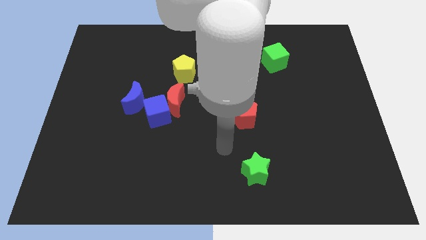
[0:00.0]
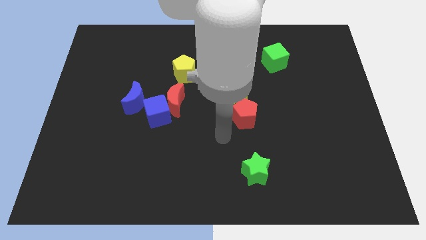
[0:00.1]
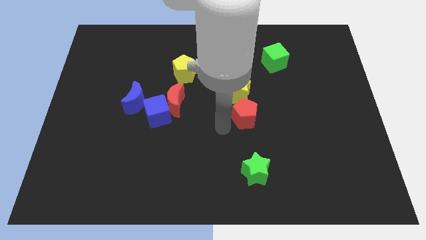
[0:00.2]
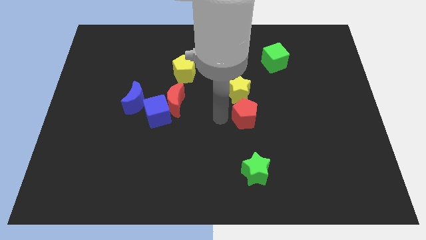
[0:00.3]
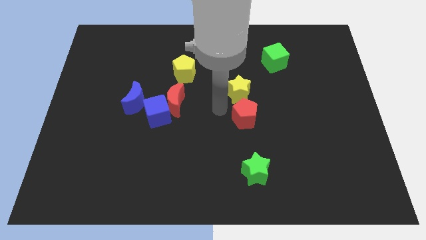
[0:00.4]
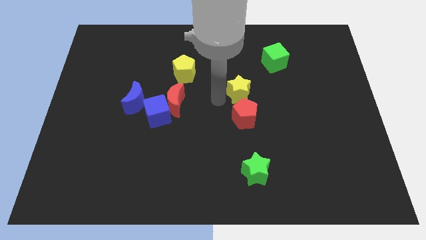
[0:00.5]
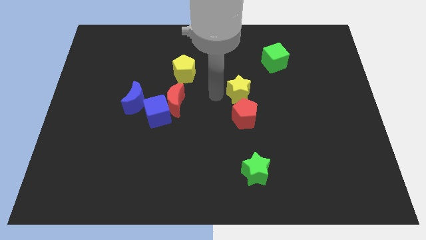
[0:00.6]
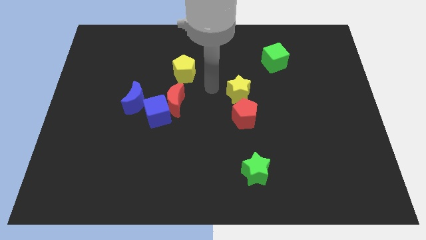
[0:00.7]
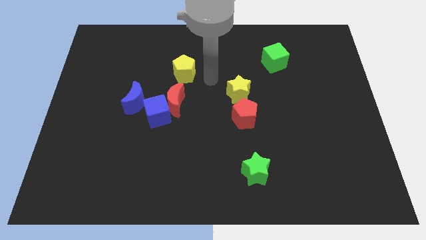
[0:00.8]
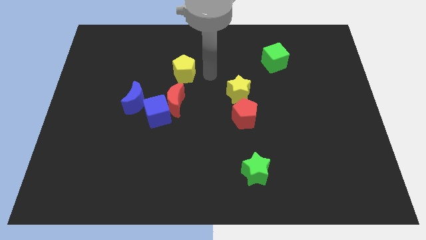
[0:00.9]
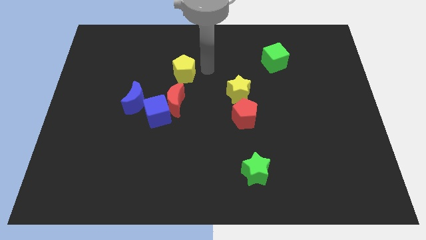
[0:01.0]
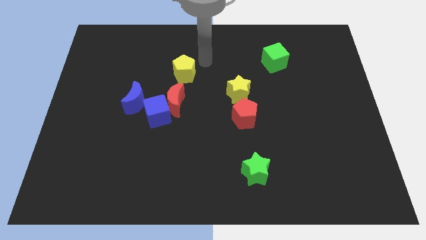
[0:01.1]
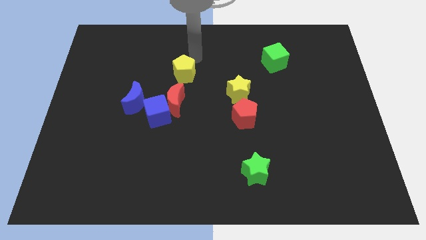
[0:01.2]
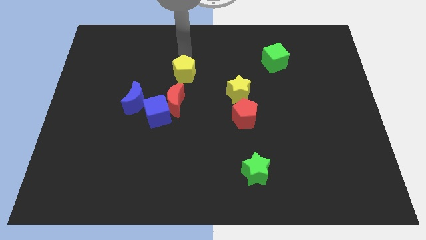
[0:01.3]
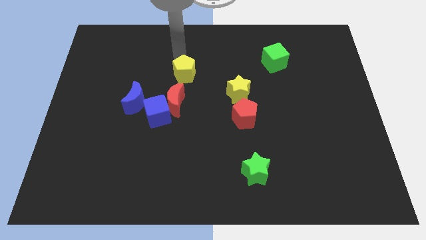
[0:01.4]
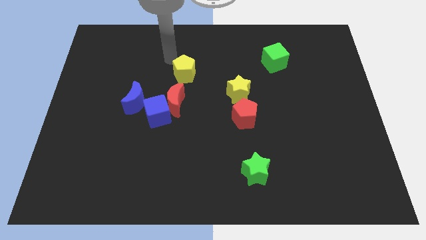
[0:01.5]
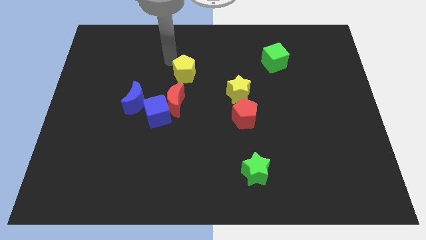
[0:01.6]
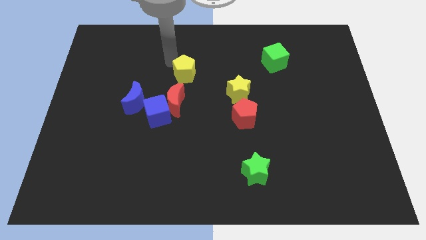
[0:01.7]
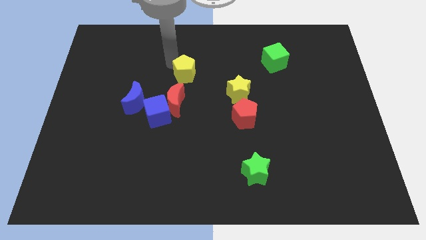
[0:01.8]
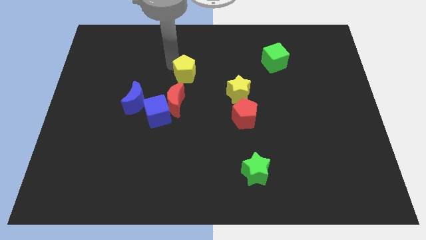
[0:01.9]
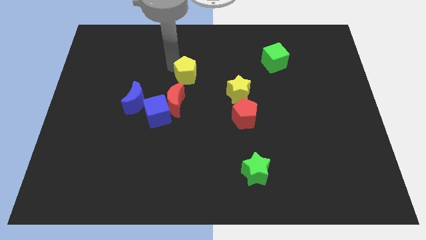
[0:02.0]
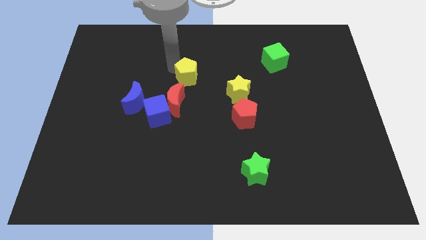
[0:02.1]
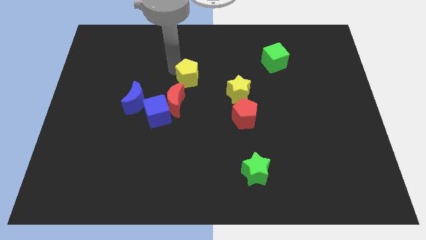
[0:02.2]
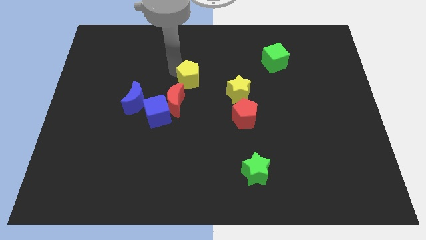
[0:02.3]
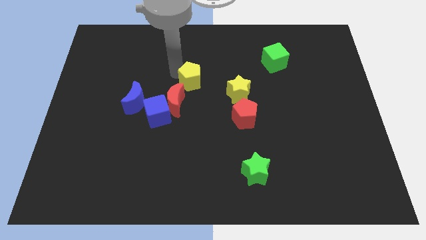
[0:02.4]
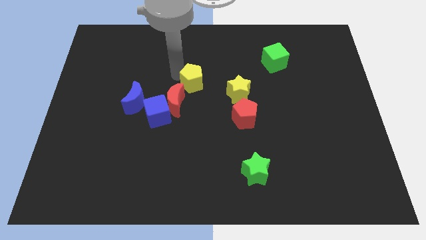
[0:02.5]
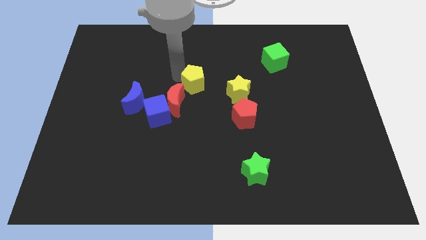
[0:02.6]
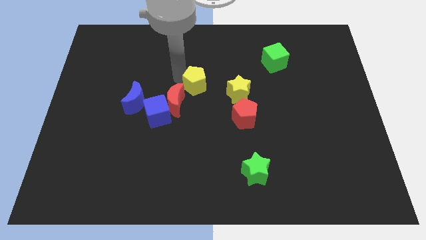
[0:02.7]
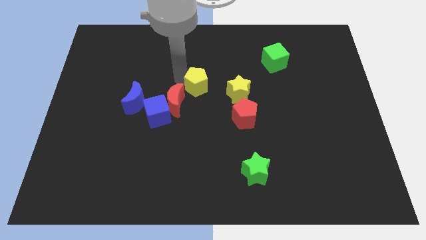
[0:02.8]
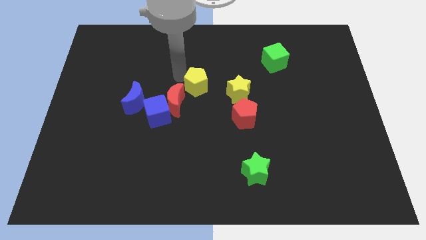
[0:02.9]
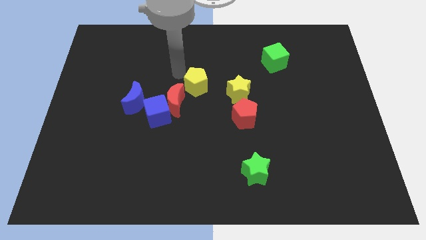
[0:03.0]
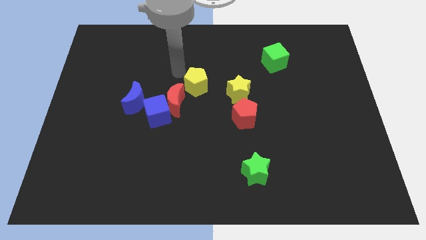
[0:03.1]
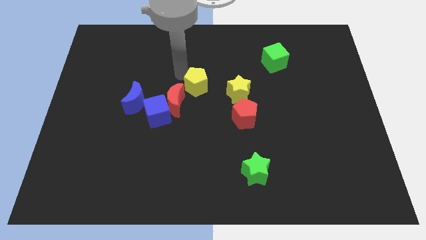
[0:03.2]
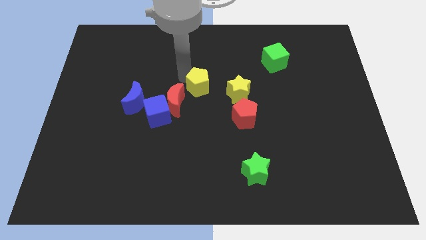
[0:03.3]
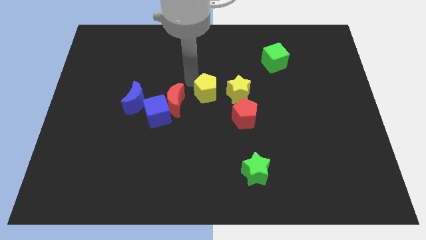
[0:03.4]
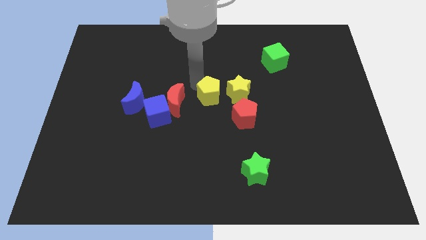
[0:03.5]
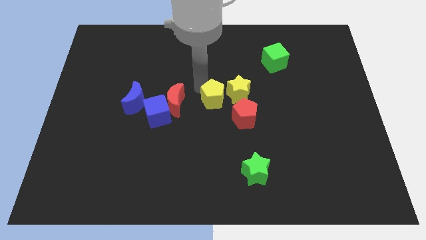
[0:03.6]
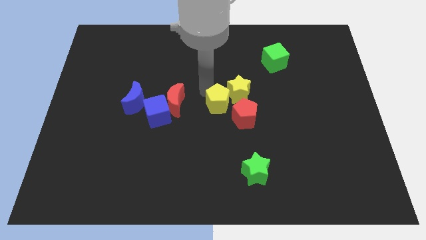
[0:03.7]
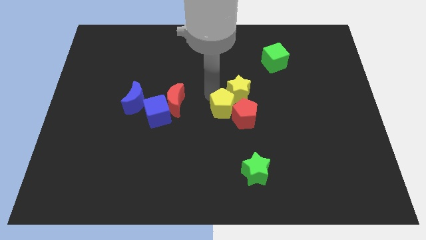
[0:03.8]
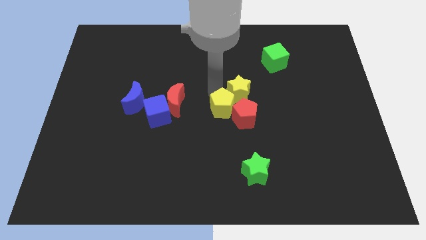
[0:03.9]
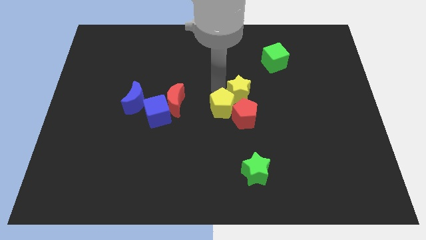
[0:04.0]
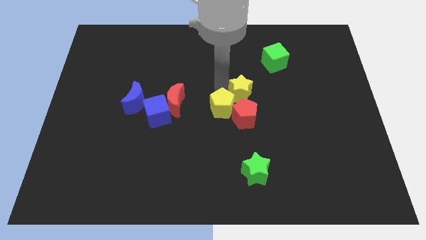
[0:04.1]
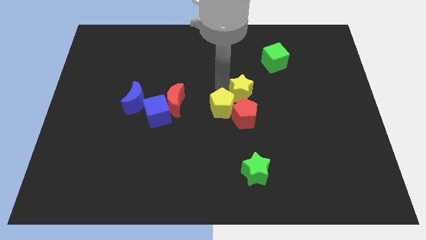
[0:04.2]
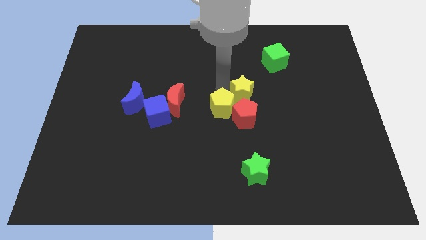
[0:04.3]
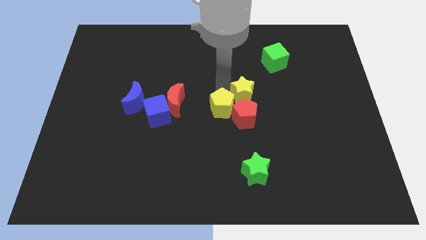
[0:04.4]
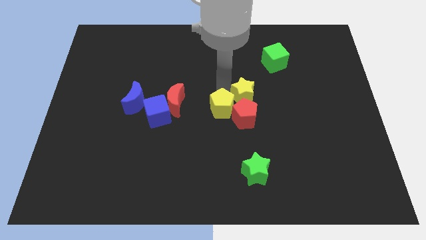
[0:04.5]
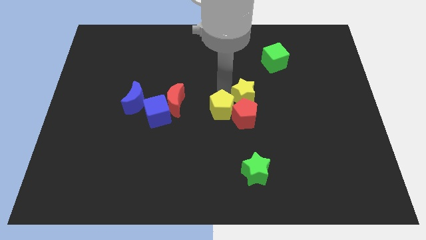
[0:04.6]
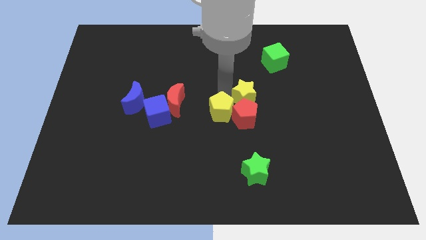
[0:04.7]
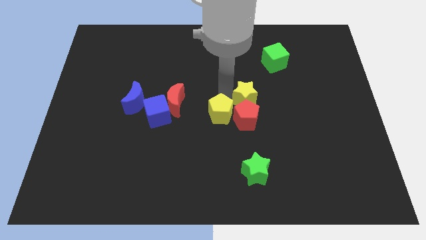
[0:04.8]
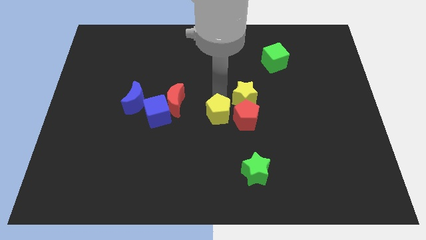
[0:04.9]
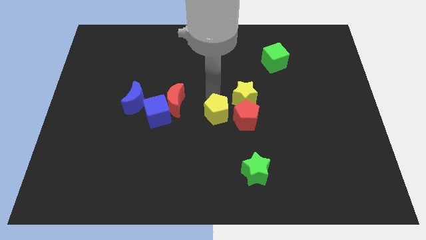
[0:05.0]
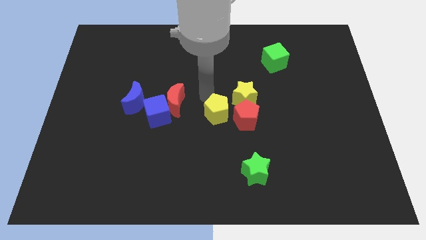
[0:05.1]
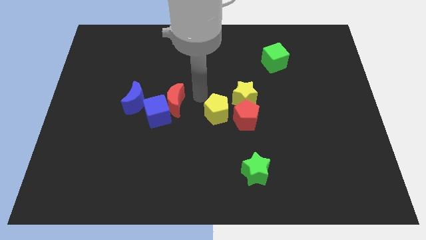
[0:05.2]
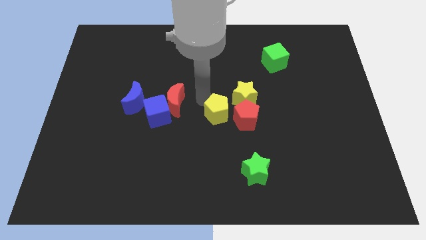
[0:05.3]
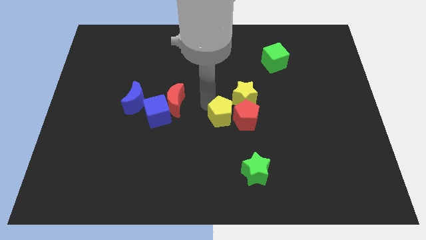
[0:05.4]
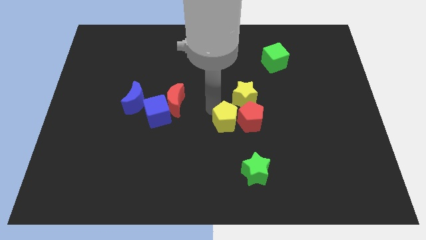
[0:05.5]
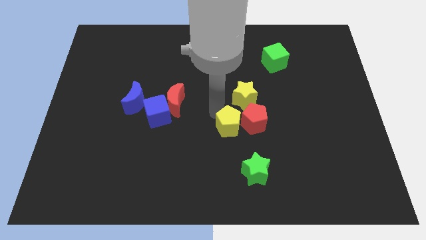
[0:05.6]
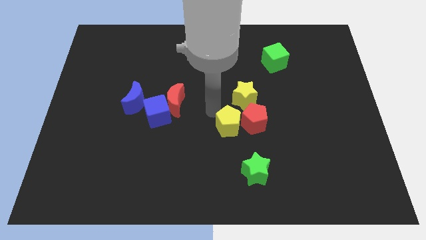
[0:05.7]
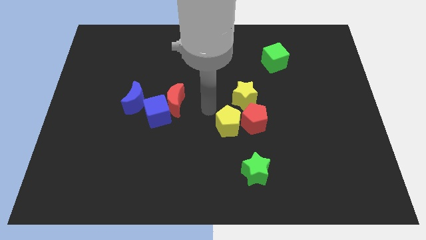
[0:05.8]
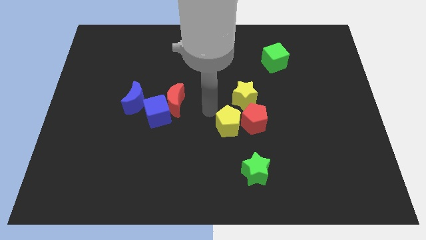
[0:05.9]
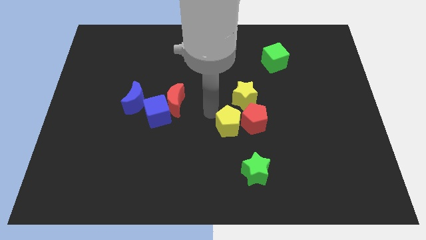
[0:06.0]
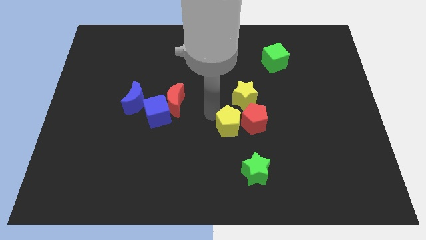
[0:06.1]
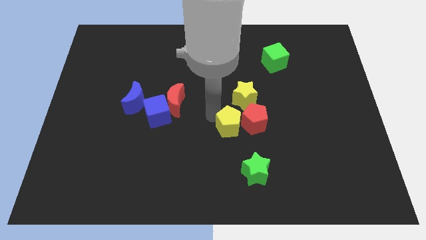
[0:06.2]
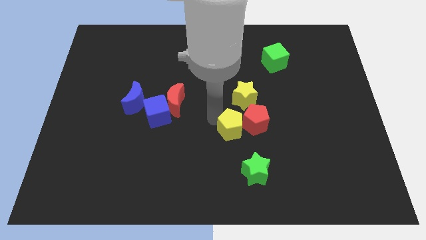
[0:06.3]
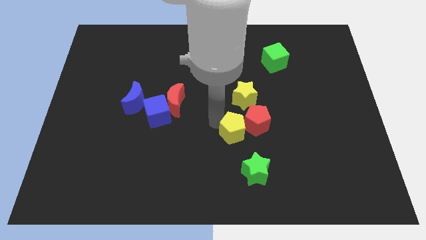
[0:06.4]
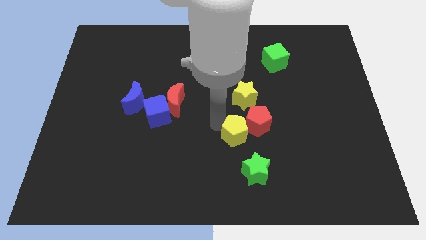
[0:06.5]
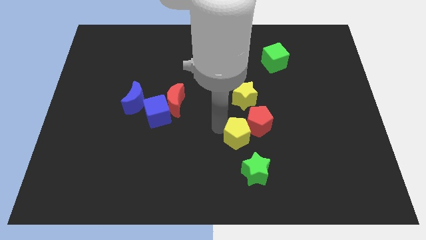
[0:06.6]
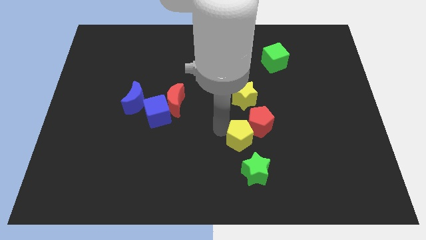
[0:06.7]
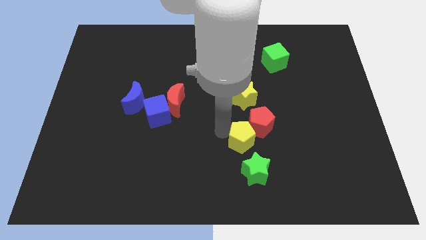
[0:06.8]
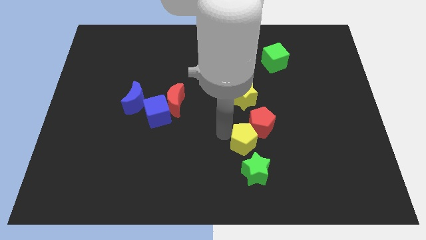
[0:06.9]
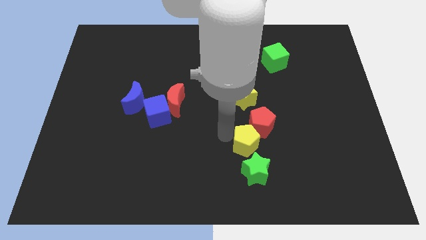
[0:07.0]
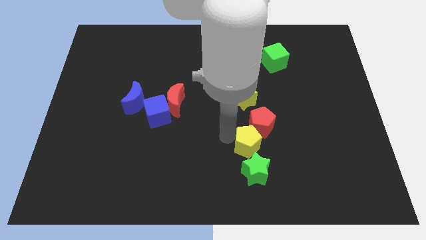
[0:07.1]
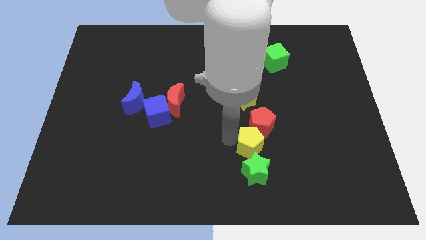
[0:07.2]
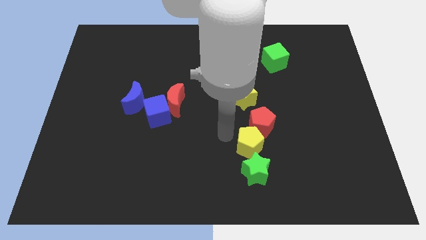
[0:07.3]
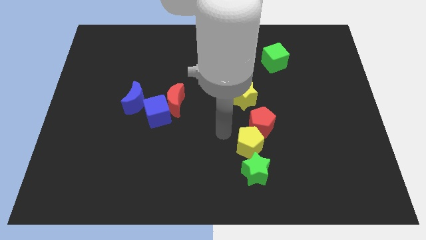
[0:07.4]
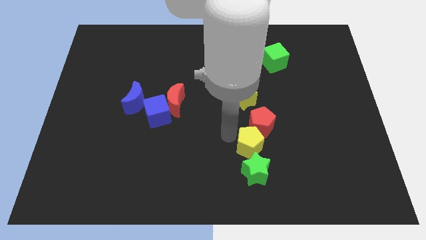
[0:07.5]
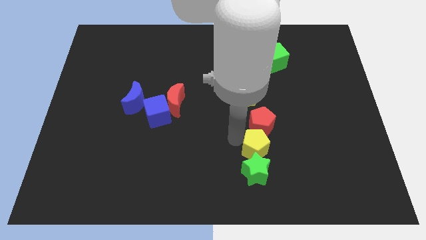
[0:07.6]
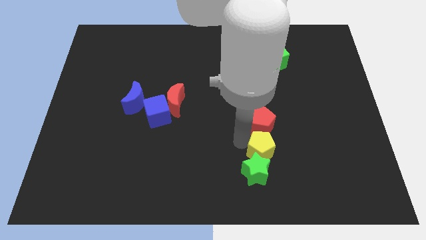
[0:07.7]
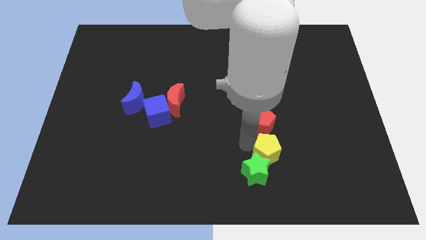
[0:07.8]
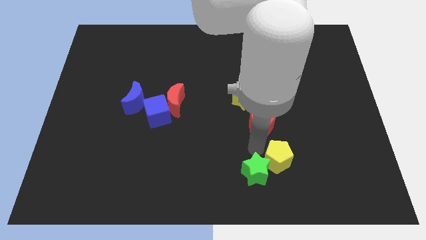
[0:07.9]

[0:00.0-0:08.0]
push the yellow pentagon to the right side of the green star
